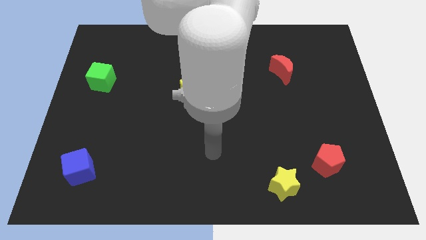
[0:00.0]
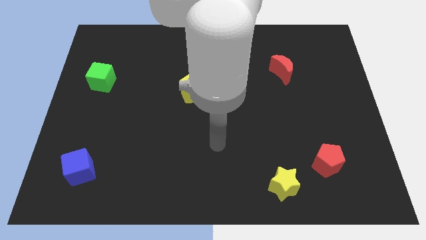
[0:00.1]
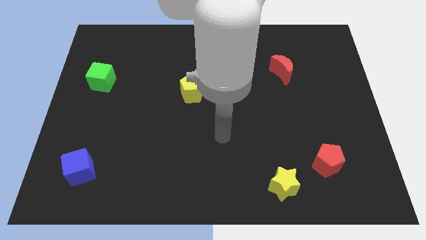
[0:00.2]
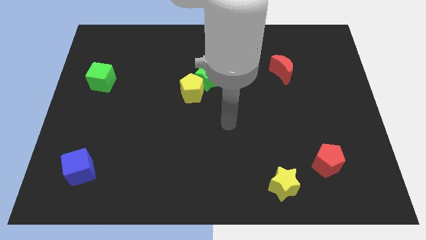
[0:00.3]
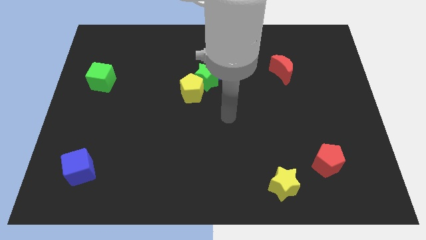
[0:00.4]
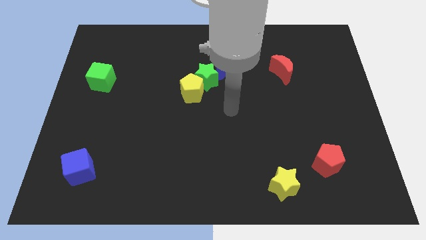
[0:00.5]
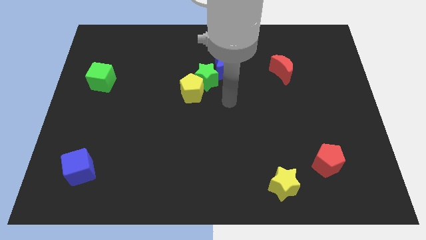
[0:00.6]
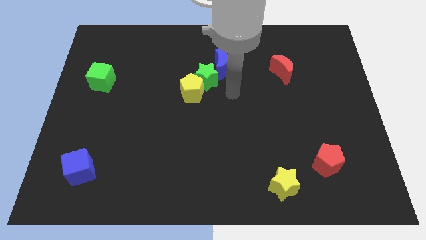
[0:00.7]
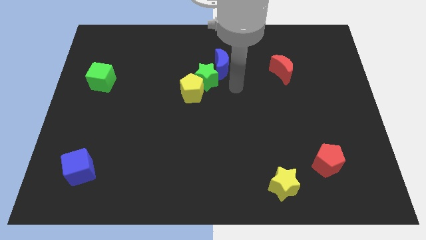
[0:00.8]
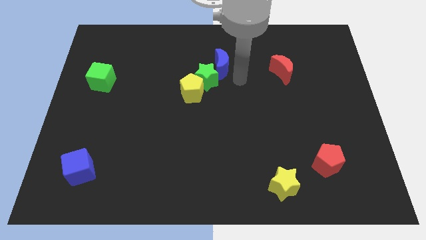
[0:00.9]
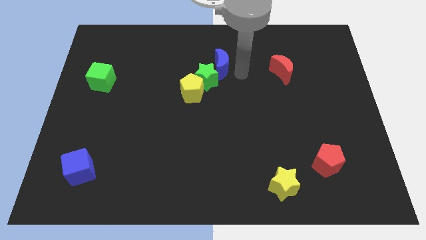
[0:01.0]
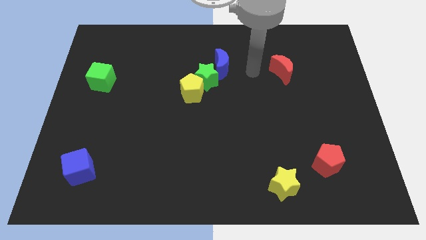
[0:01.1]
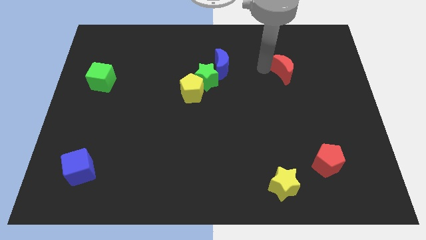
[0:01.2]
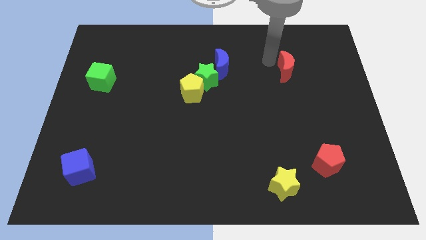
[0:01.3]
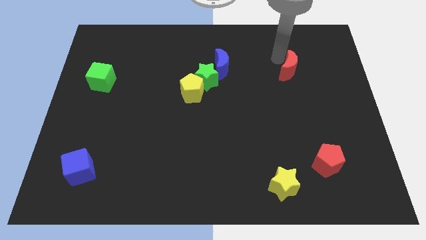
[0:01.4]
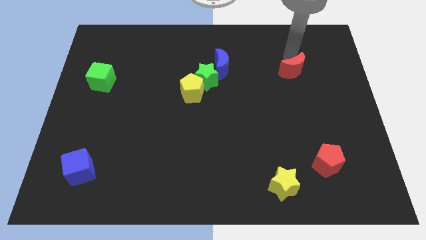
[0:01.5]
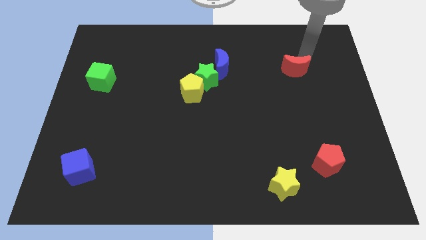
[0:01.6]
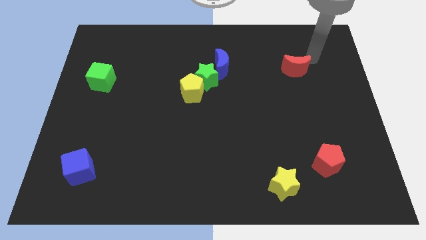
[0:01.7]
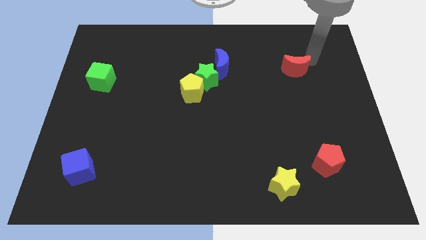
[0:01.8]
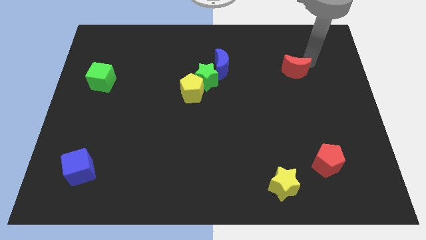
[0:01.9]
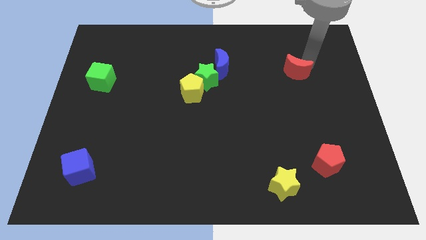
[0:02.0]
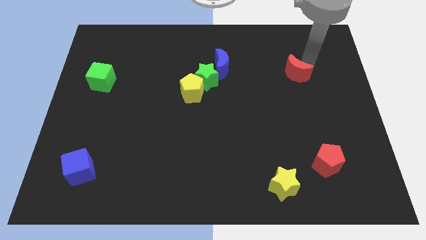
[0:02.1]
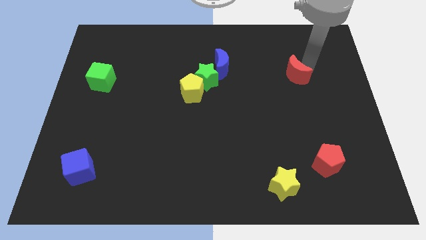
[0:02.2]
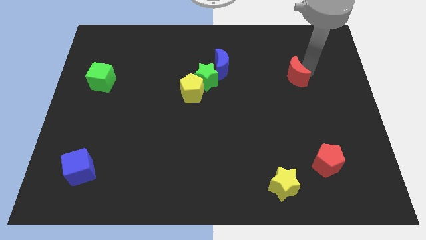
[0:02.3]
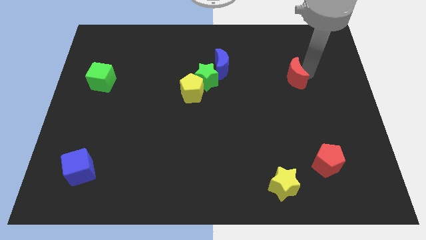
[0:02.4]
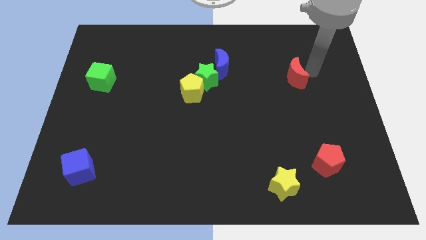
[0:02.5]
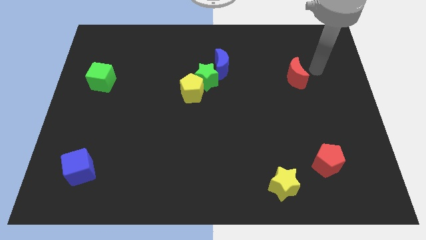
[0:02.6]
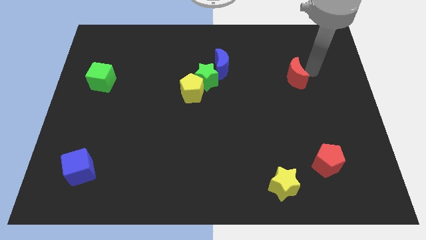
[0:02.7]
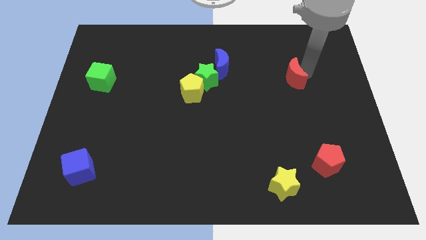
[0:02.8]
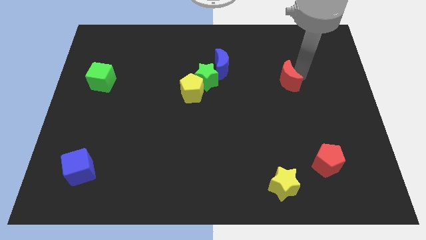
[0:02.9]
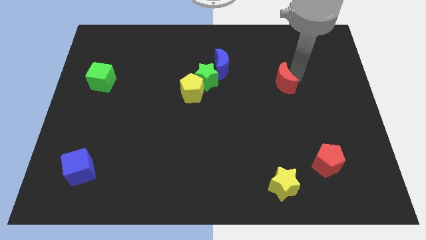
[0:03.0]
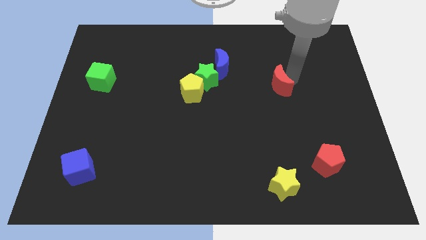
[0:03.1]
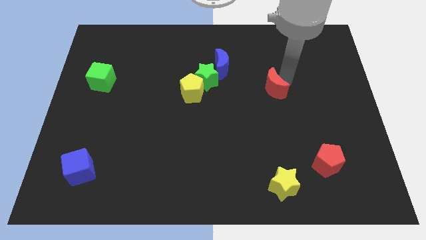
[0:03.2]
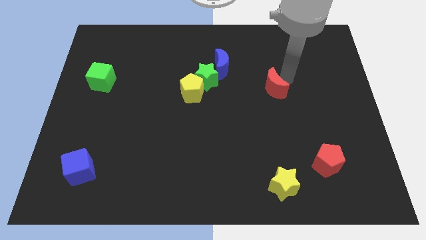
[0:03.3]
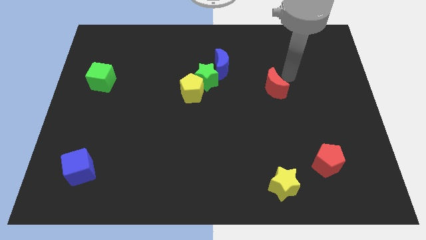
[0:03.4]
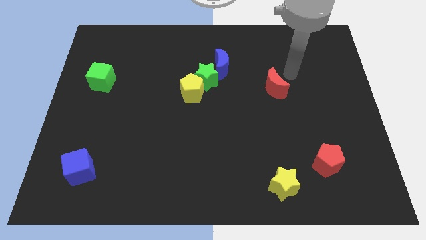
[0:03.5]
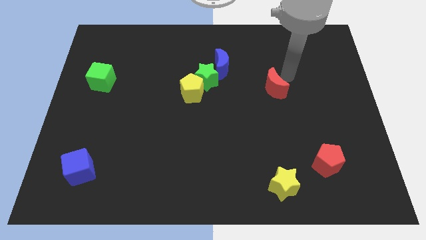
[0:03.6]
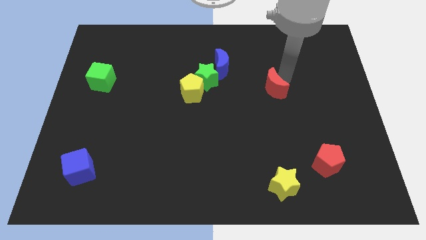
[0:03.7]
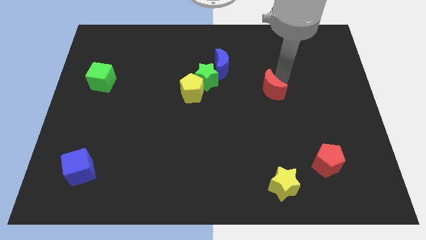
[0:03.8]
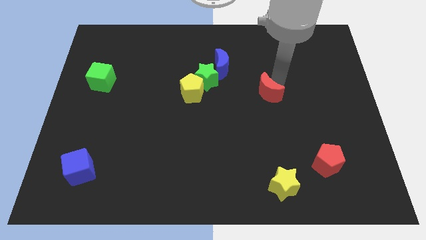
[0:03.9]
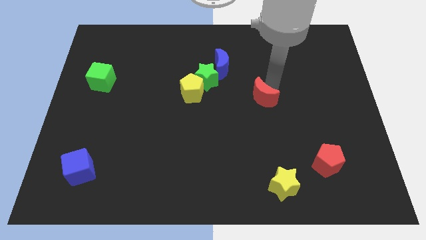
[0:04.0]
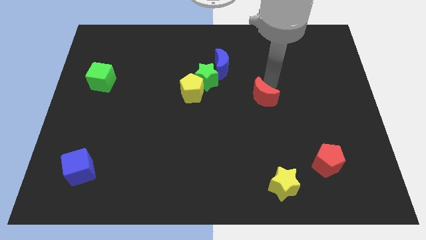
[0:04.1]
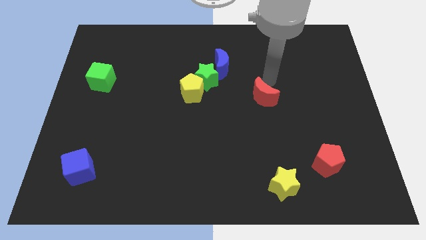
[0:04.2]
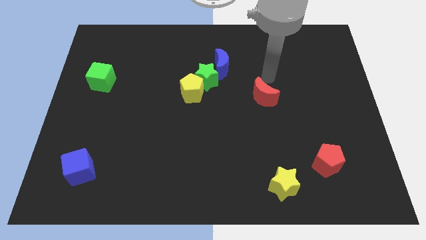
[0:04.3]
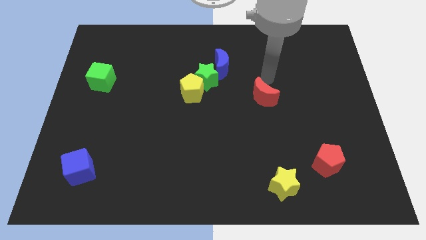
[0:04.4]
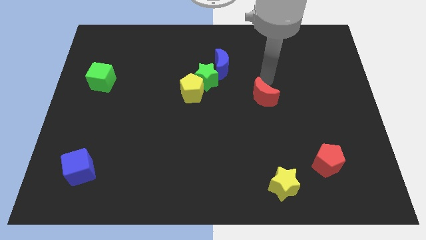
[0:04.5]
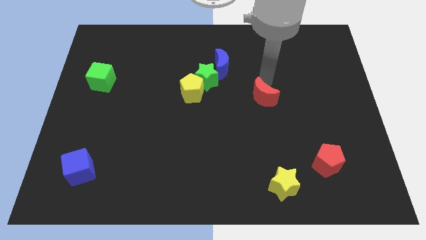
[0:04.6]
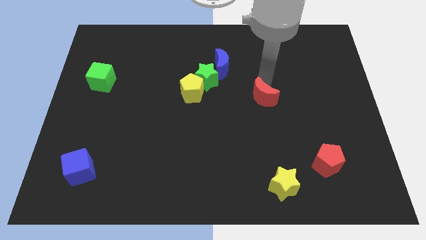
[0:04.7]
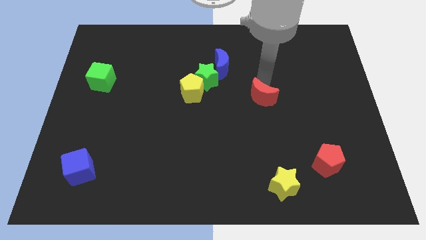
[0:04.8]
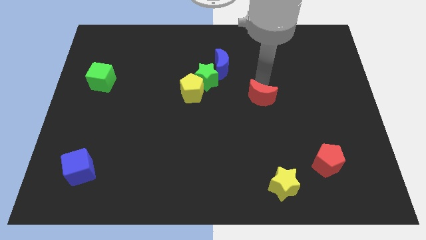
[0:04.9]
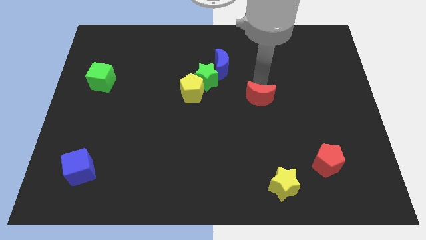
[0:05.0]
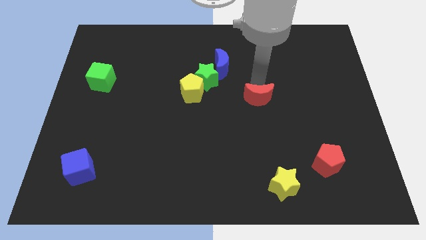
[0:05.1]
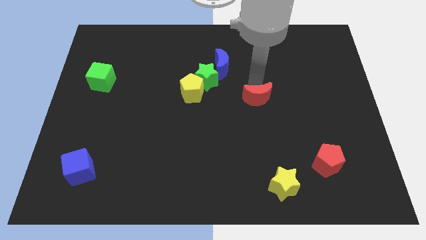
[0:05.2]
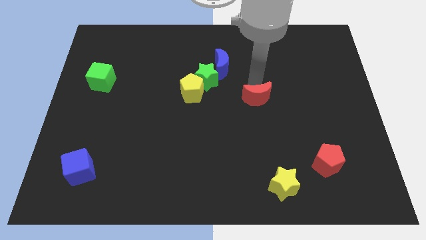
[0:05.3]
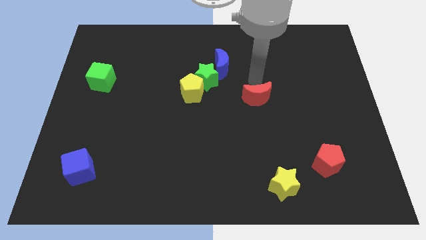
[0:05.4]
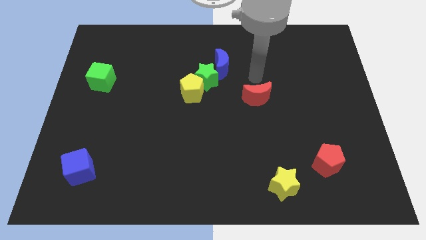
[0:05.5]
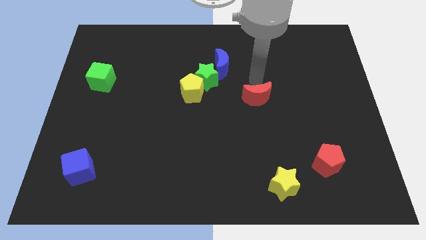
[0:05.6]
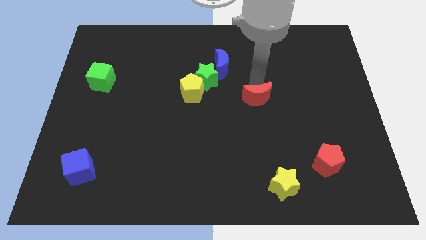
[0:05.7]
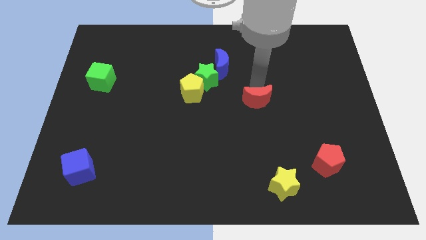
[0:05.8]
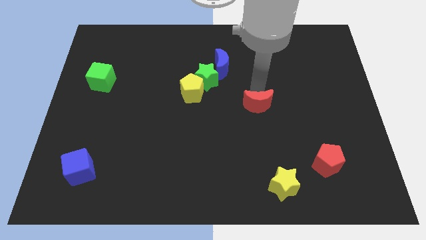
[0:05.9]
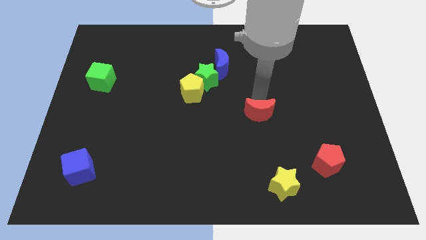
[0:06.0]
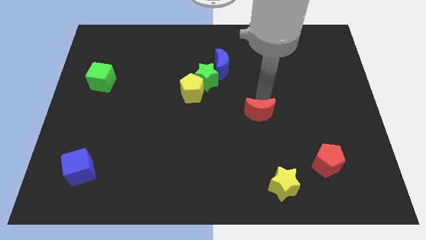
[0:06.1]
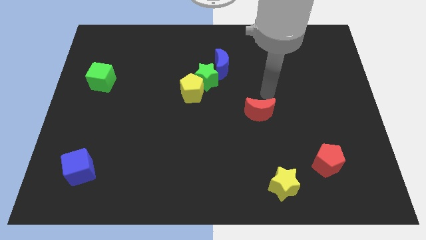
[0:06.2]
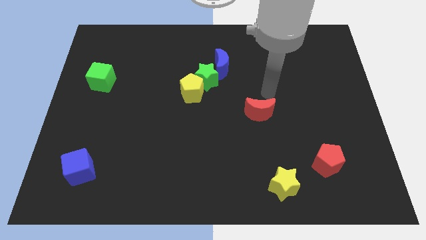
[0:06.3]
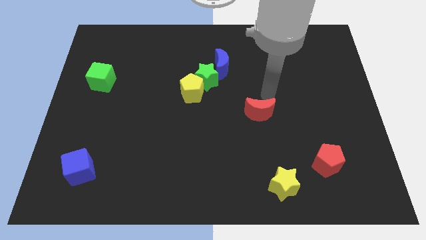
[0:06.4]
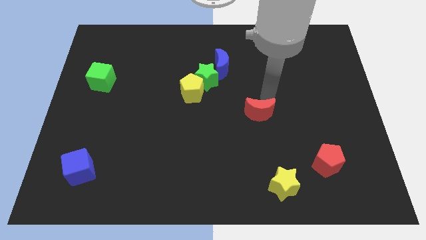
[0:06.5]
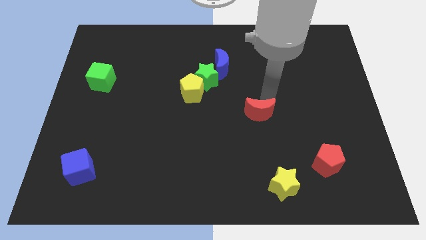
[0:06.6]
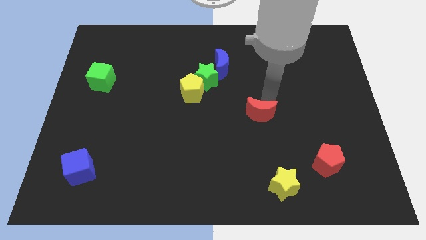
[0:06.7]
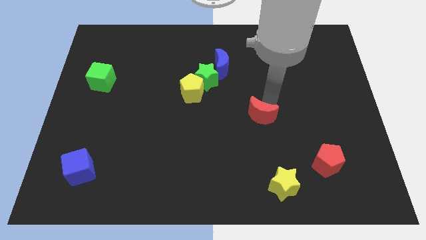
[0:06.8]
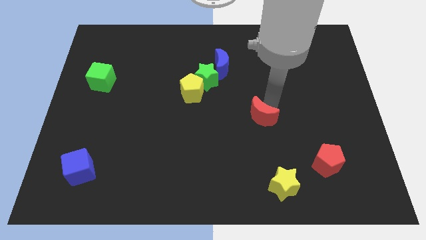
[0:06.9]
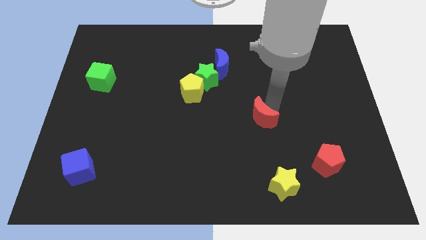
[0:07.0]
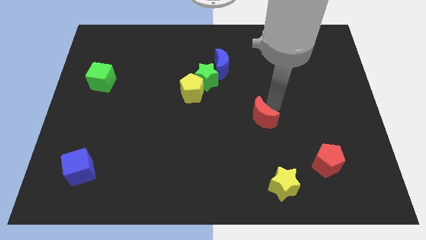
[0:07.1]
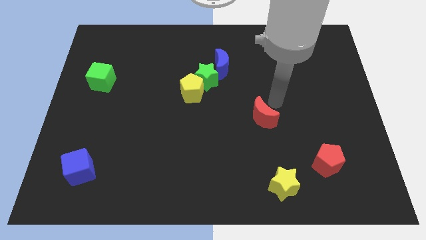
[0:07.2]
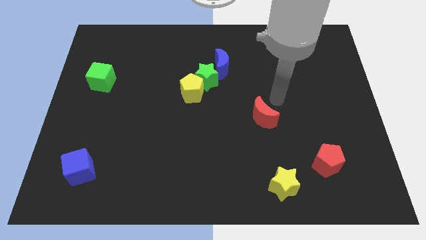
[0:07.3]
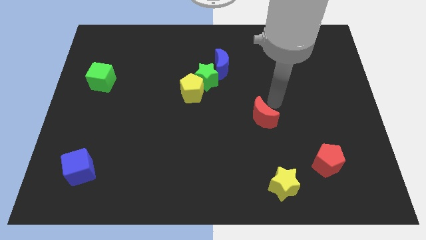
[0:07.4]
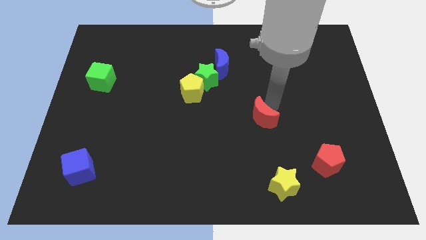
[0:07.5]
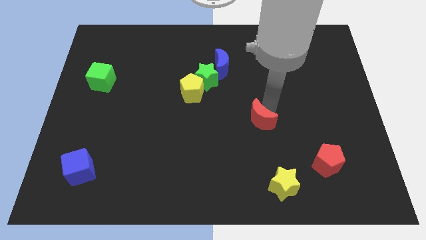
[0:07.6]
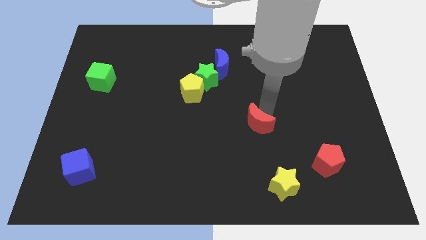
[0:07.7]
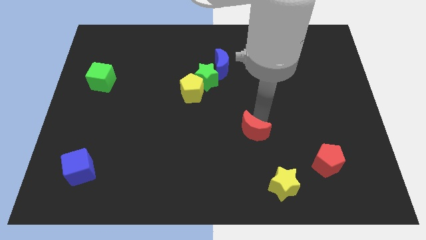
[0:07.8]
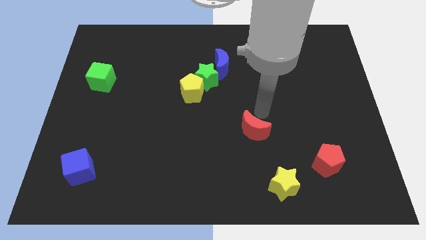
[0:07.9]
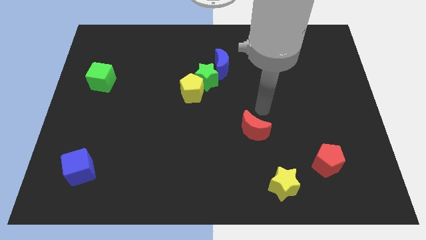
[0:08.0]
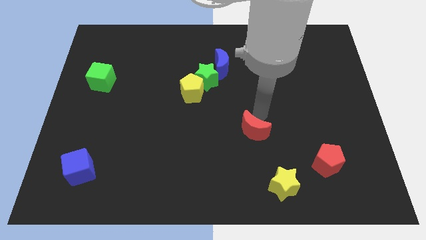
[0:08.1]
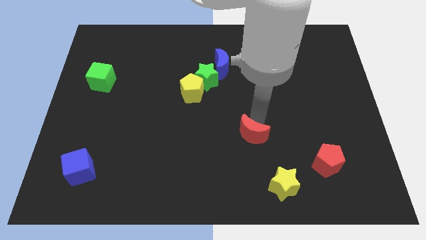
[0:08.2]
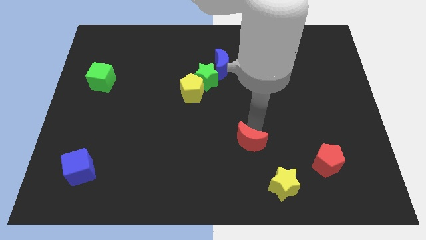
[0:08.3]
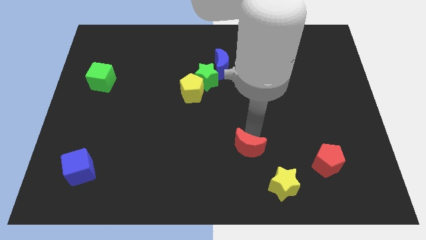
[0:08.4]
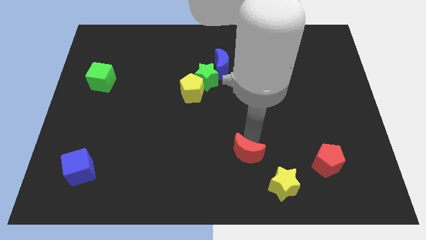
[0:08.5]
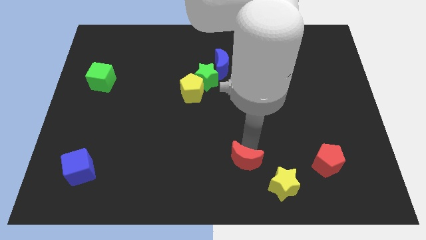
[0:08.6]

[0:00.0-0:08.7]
slide the red moon to the bottom side
